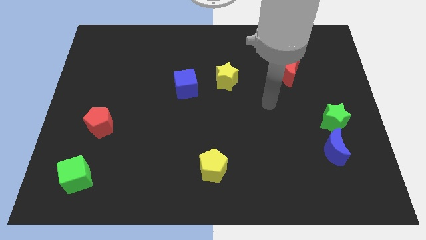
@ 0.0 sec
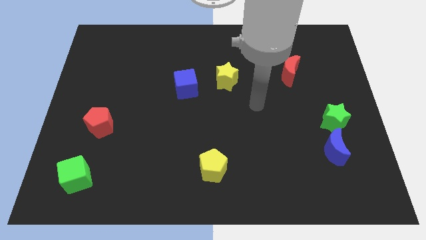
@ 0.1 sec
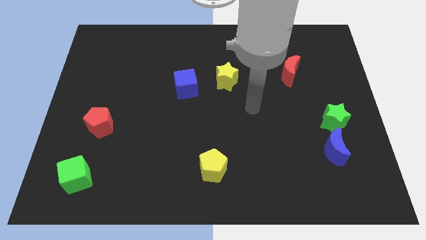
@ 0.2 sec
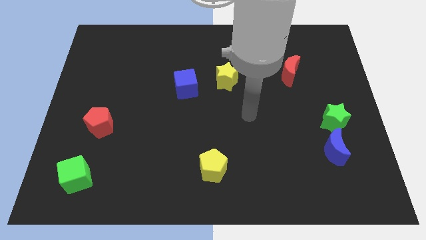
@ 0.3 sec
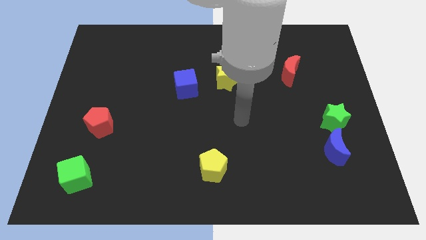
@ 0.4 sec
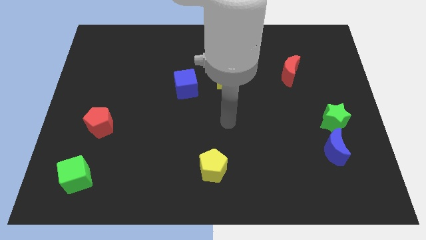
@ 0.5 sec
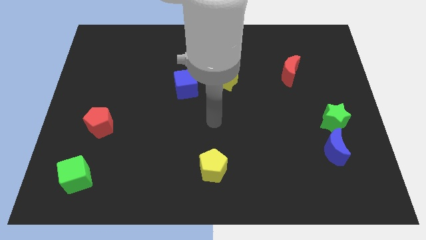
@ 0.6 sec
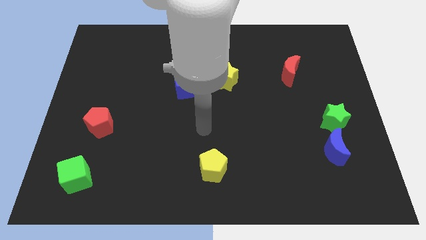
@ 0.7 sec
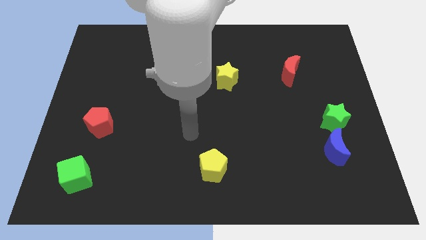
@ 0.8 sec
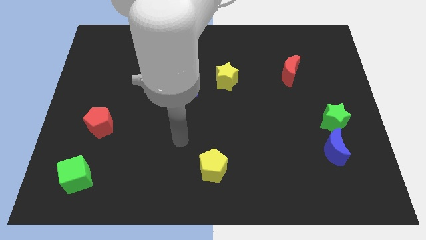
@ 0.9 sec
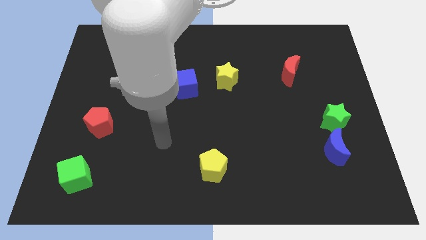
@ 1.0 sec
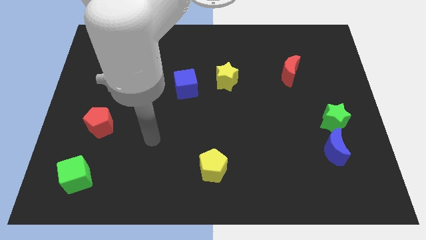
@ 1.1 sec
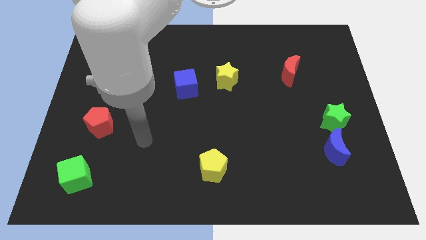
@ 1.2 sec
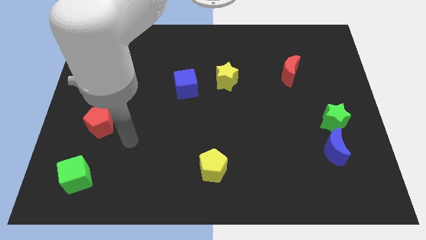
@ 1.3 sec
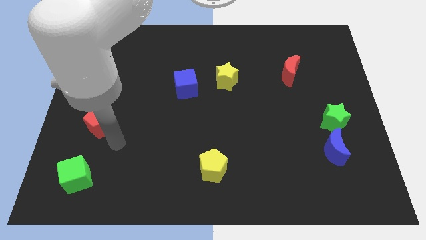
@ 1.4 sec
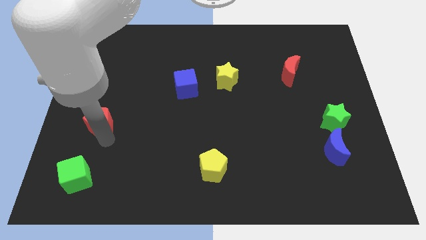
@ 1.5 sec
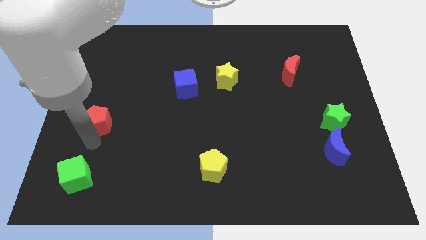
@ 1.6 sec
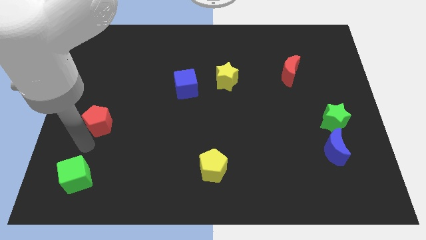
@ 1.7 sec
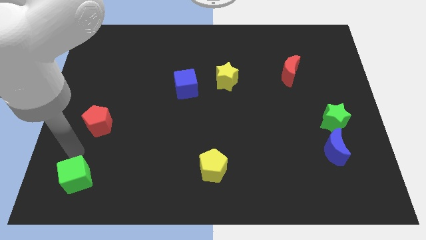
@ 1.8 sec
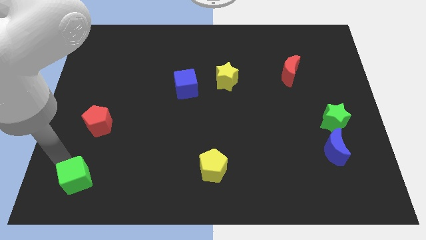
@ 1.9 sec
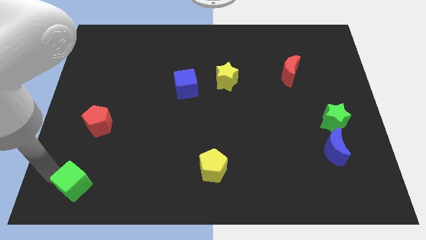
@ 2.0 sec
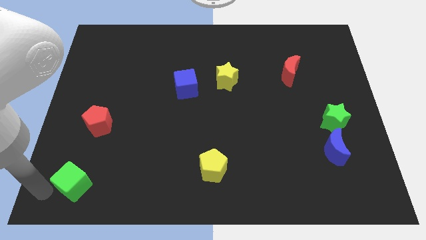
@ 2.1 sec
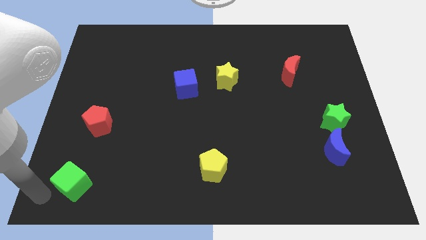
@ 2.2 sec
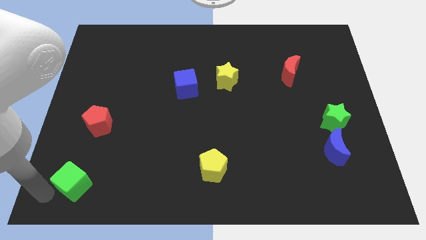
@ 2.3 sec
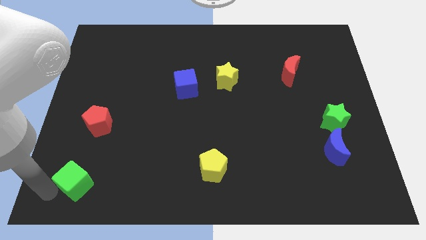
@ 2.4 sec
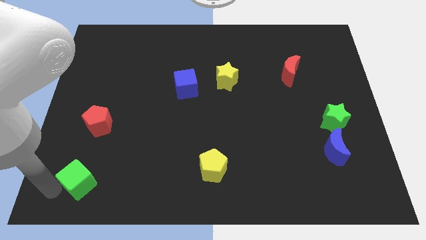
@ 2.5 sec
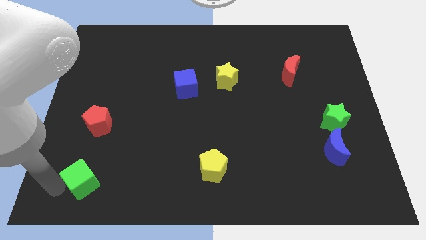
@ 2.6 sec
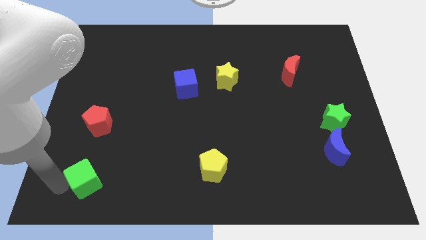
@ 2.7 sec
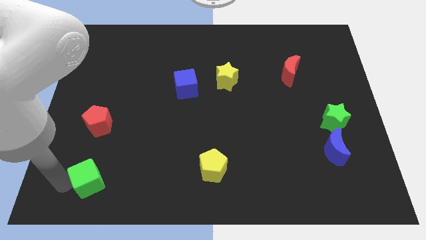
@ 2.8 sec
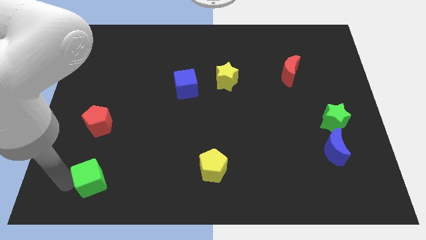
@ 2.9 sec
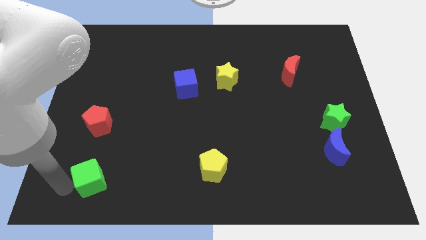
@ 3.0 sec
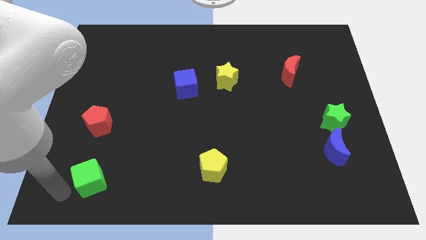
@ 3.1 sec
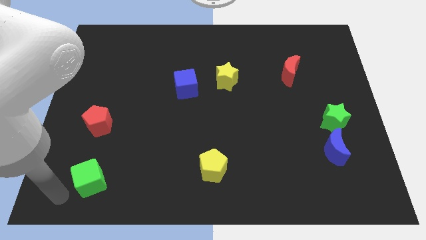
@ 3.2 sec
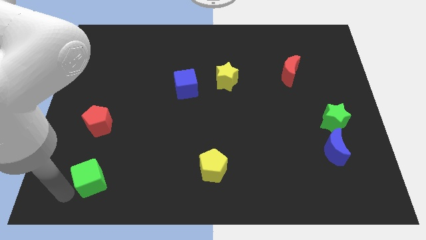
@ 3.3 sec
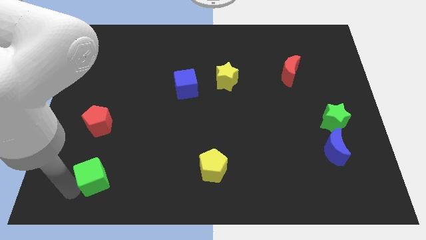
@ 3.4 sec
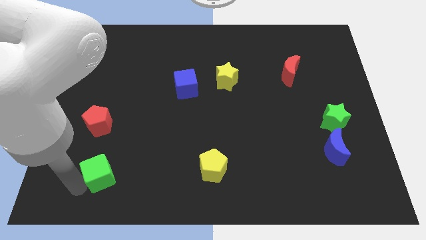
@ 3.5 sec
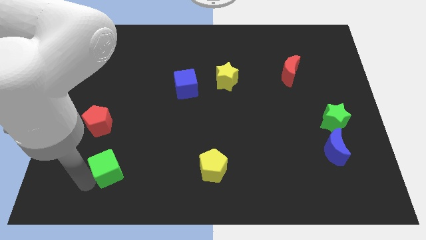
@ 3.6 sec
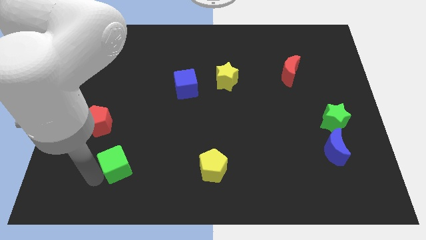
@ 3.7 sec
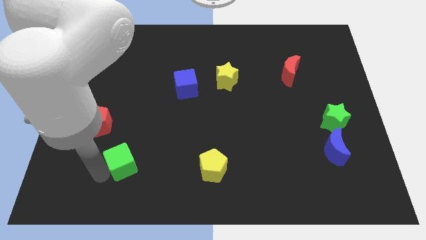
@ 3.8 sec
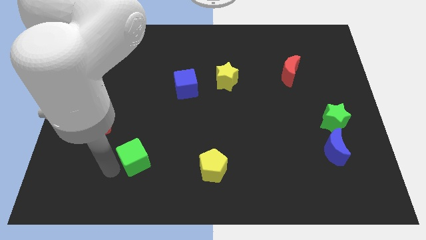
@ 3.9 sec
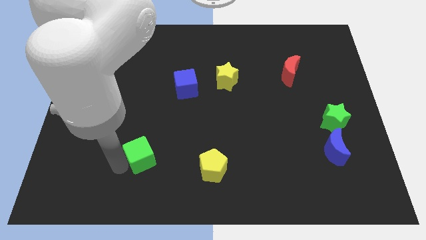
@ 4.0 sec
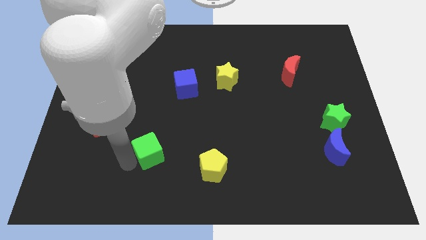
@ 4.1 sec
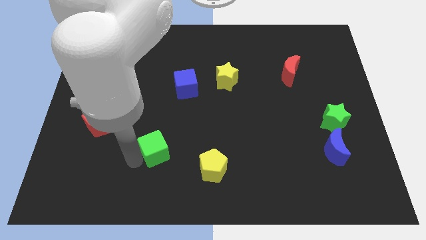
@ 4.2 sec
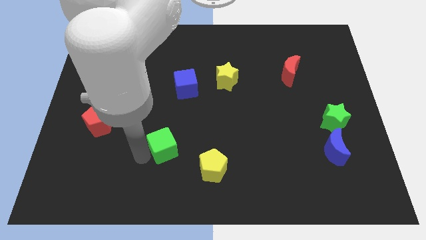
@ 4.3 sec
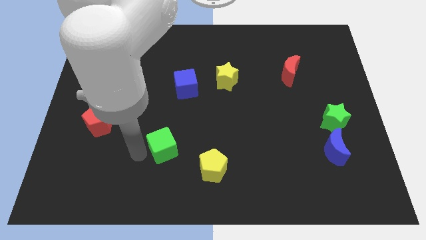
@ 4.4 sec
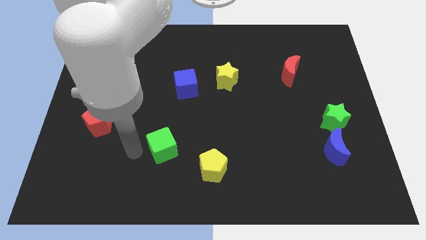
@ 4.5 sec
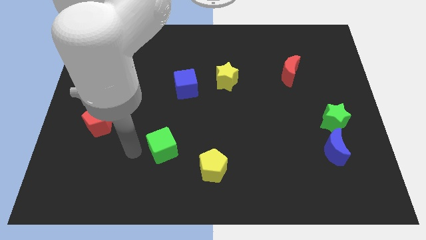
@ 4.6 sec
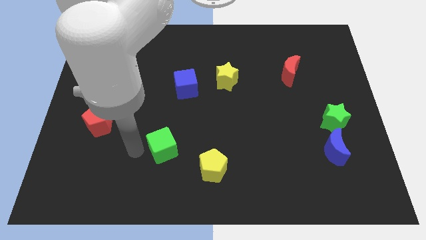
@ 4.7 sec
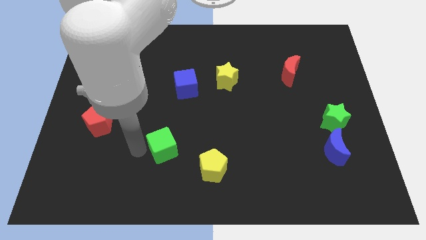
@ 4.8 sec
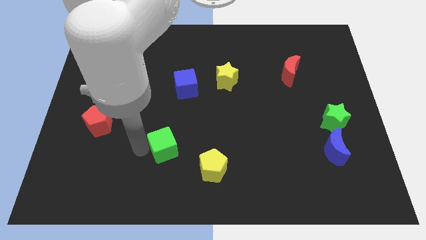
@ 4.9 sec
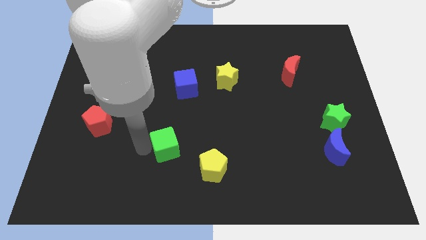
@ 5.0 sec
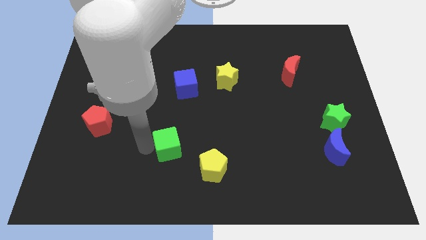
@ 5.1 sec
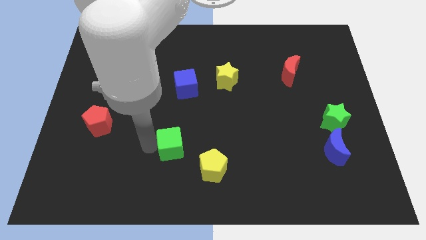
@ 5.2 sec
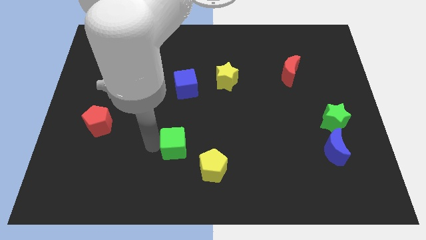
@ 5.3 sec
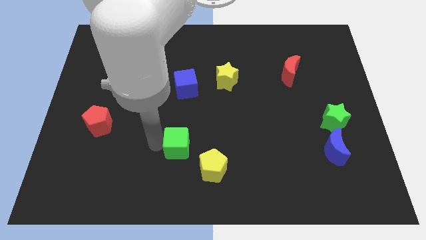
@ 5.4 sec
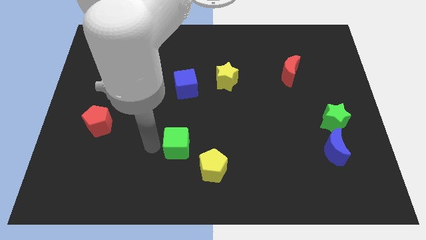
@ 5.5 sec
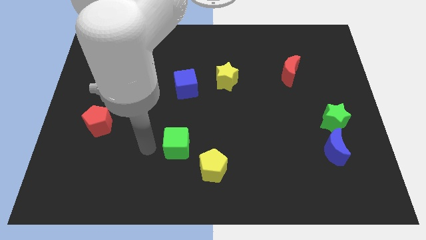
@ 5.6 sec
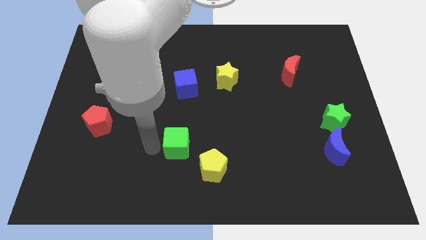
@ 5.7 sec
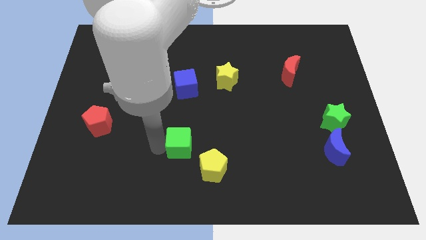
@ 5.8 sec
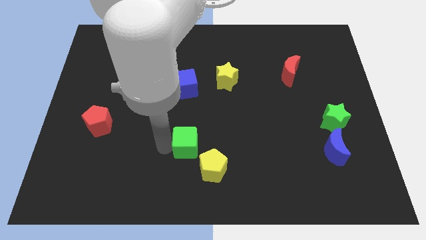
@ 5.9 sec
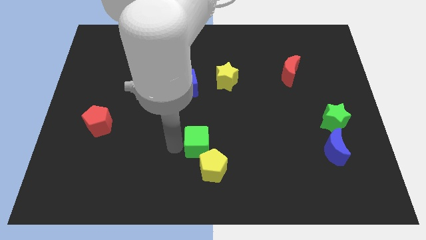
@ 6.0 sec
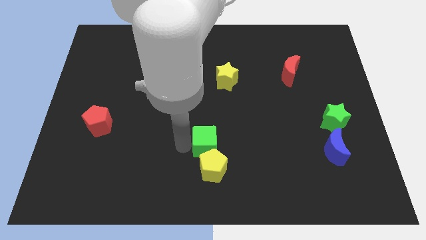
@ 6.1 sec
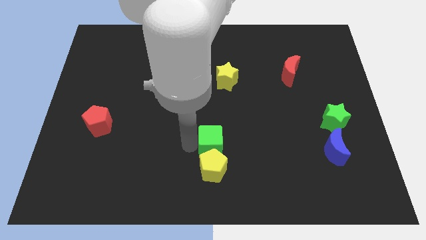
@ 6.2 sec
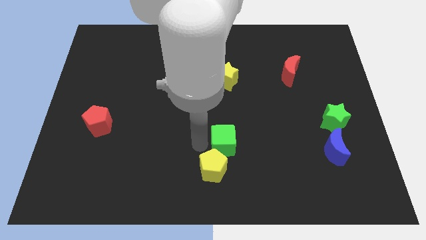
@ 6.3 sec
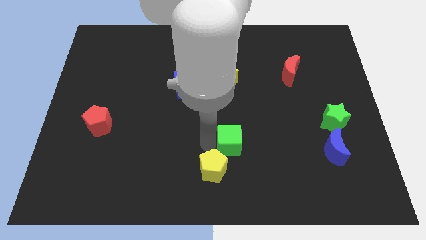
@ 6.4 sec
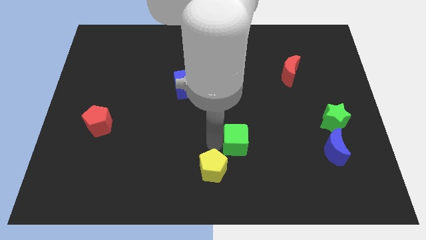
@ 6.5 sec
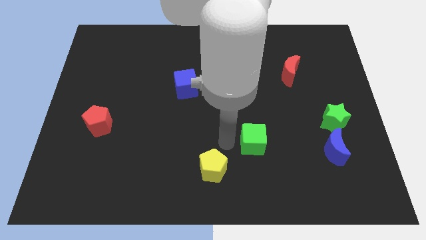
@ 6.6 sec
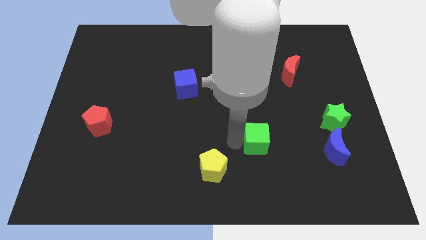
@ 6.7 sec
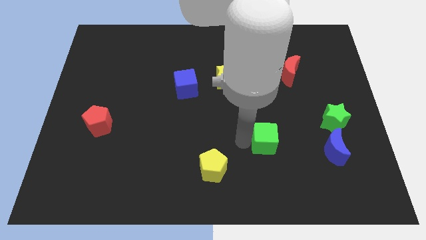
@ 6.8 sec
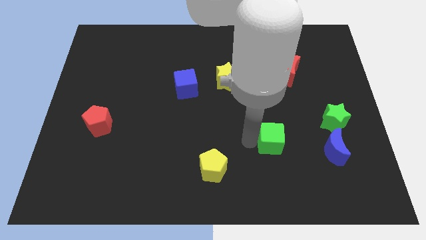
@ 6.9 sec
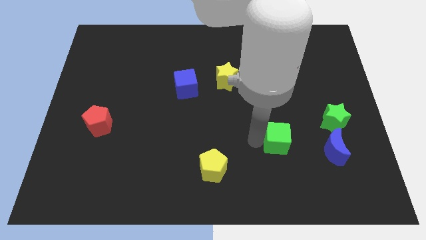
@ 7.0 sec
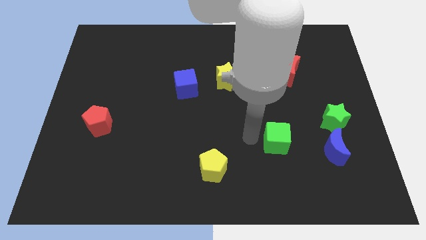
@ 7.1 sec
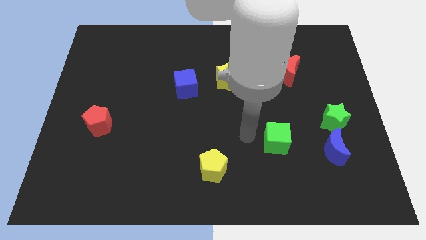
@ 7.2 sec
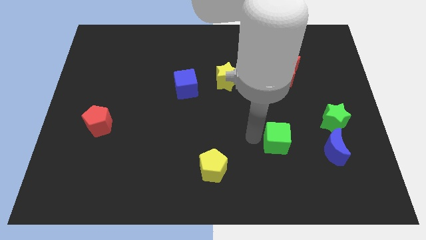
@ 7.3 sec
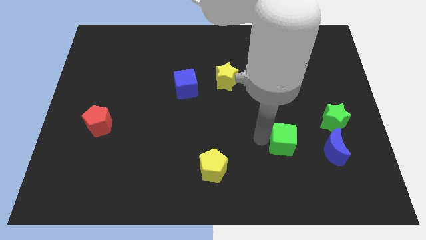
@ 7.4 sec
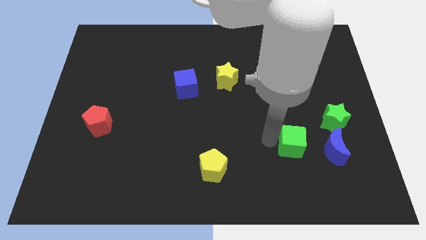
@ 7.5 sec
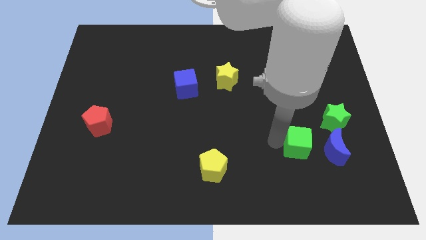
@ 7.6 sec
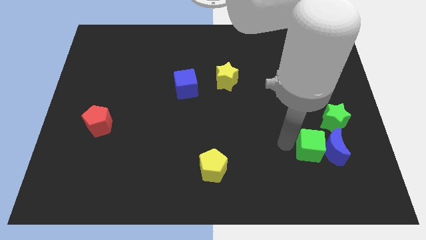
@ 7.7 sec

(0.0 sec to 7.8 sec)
move the green cube close to the blue moon
